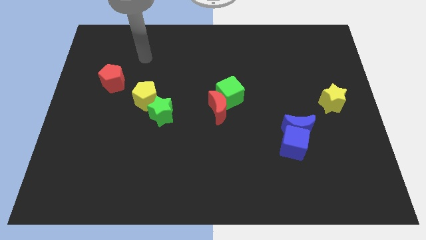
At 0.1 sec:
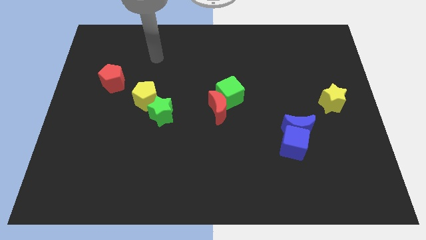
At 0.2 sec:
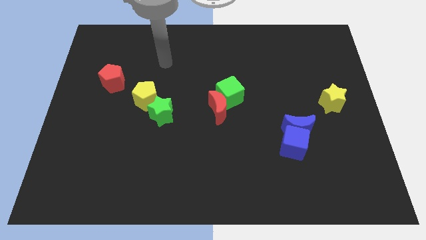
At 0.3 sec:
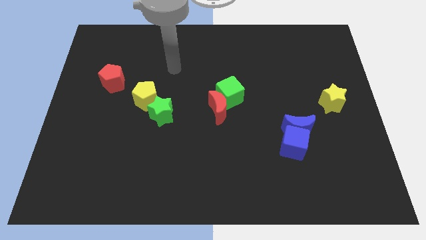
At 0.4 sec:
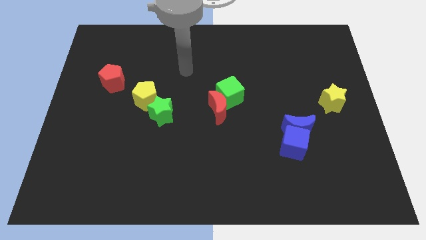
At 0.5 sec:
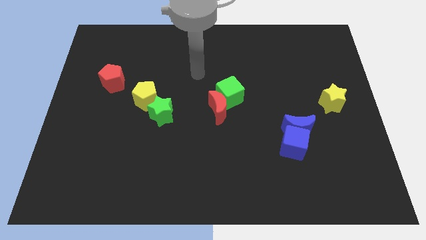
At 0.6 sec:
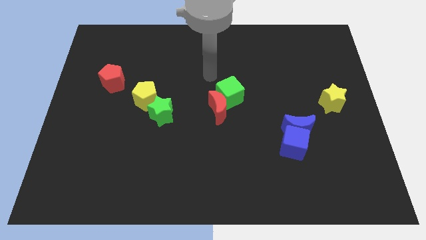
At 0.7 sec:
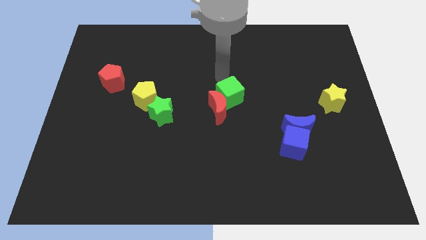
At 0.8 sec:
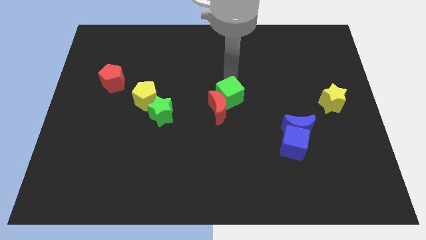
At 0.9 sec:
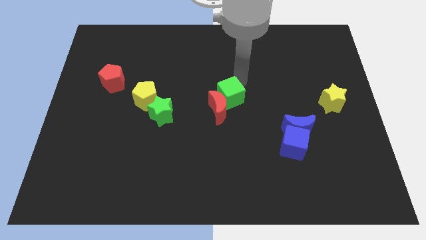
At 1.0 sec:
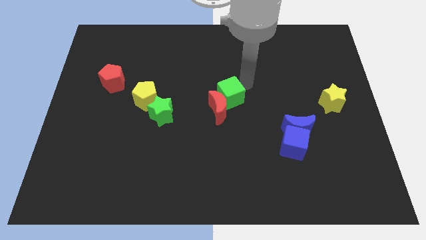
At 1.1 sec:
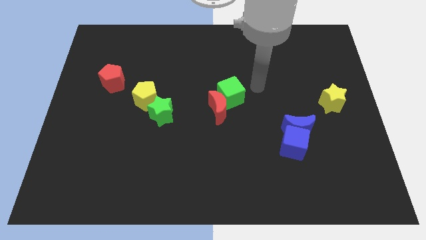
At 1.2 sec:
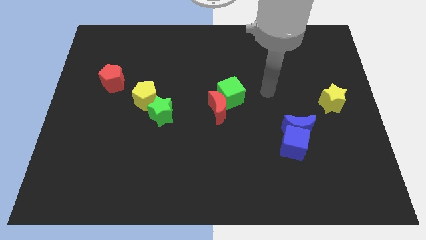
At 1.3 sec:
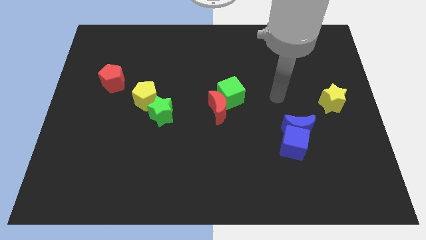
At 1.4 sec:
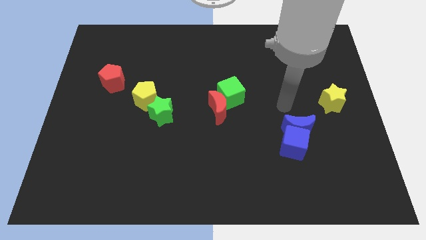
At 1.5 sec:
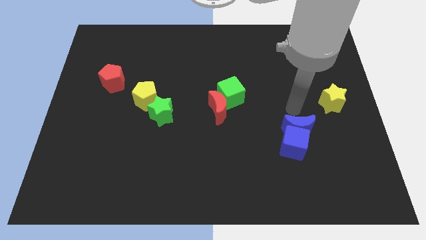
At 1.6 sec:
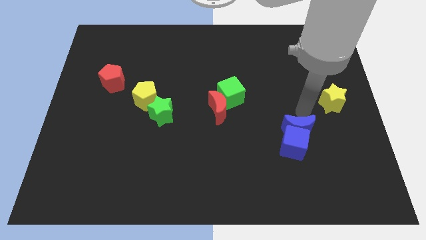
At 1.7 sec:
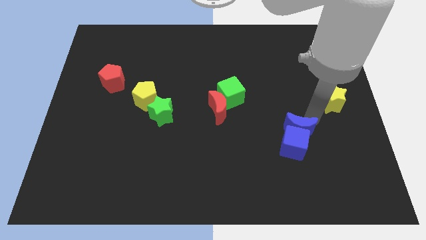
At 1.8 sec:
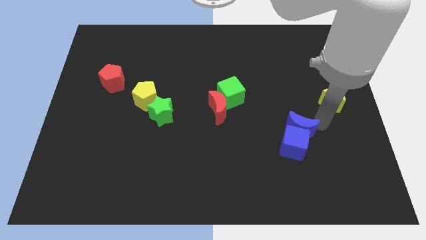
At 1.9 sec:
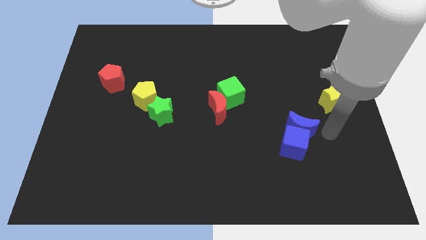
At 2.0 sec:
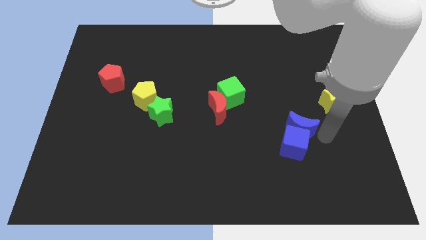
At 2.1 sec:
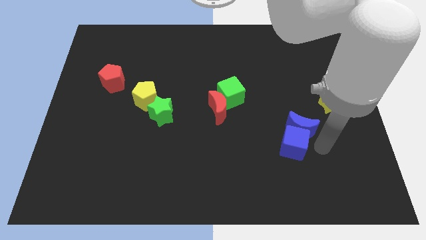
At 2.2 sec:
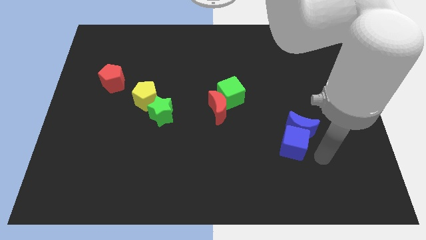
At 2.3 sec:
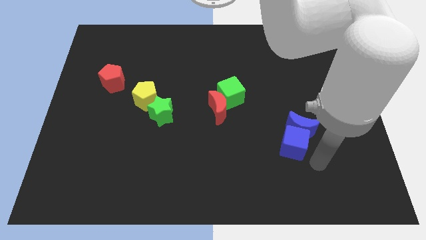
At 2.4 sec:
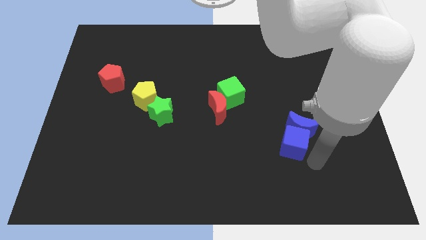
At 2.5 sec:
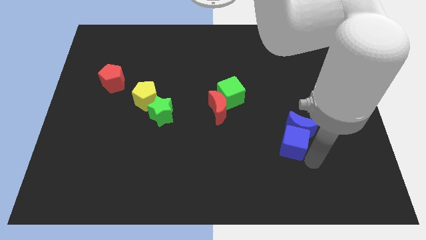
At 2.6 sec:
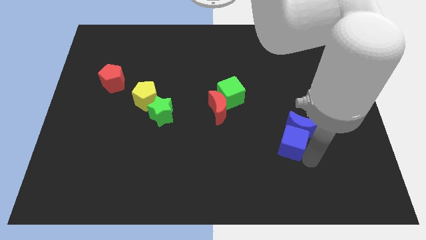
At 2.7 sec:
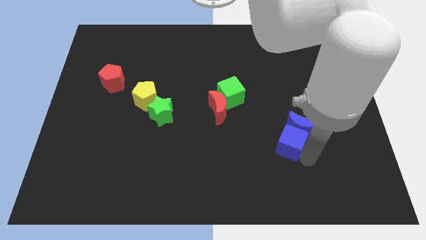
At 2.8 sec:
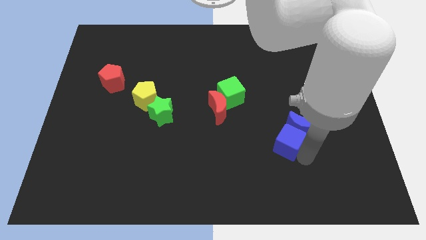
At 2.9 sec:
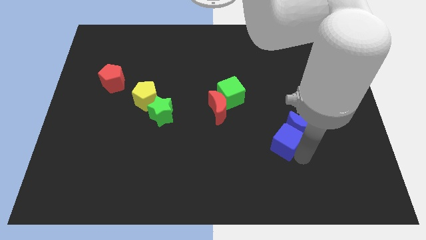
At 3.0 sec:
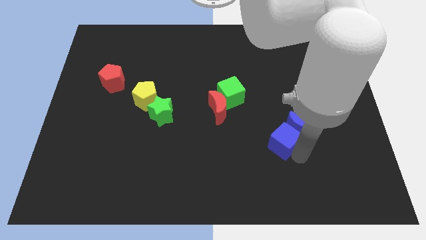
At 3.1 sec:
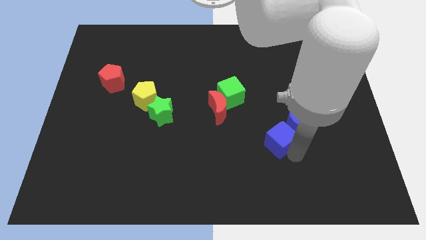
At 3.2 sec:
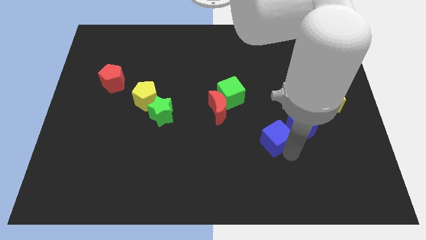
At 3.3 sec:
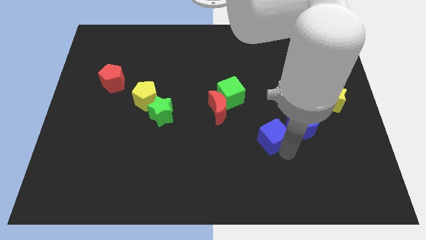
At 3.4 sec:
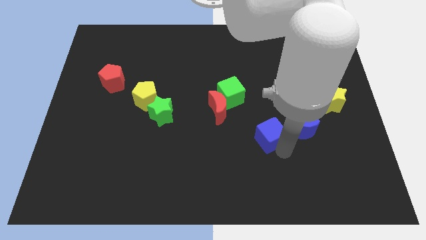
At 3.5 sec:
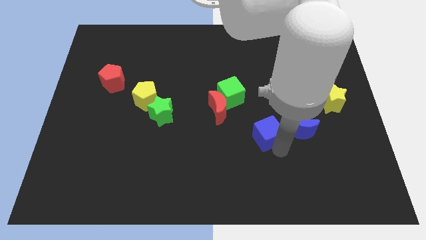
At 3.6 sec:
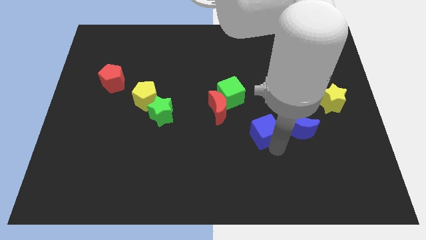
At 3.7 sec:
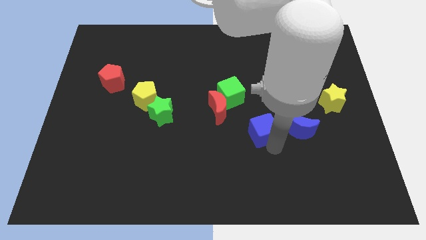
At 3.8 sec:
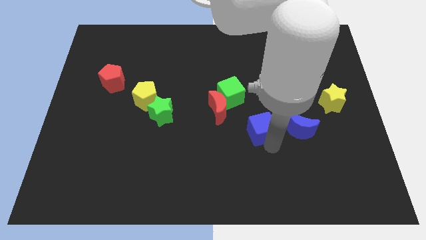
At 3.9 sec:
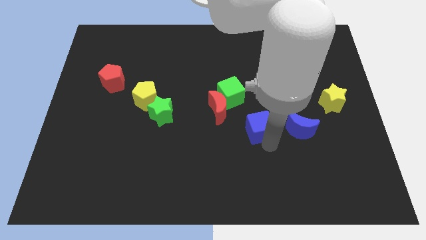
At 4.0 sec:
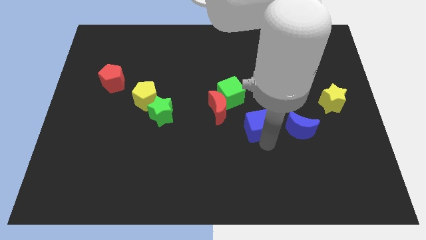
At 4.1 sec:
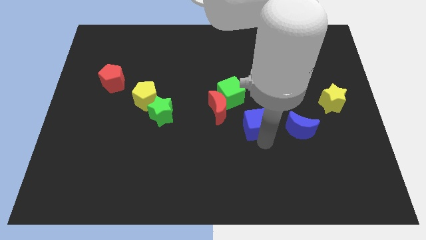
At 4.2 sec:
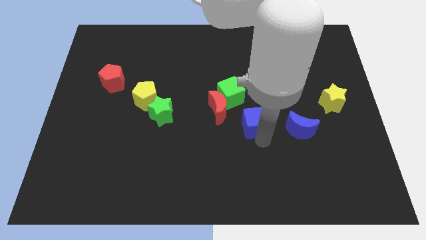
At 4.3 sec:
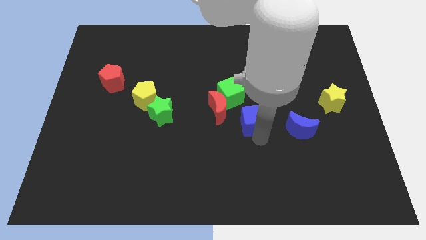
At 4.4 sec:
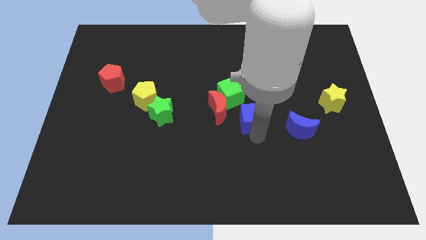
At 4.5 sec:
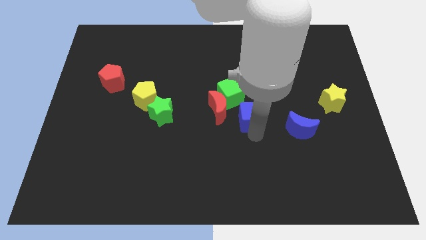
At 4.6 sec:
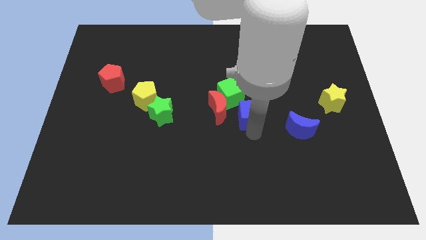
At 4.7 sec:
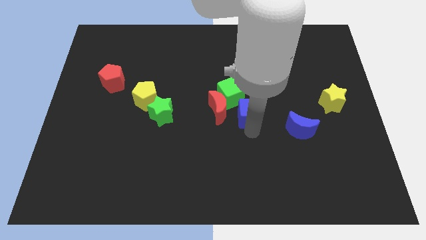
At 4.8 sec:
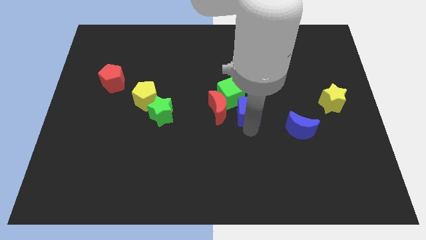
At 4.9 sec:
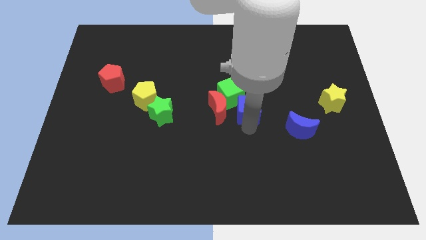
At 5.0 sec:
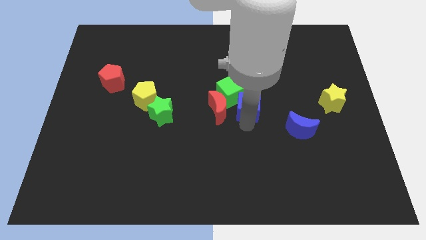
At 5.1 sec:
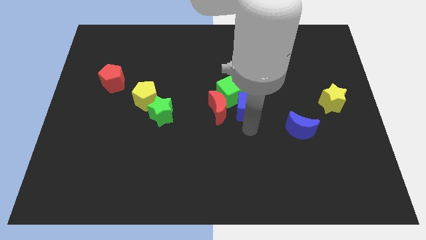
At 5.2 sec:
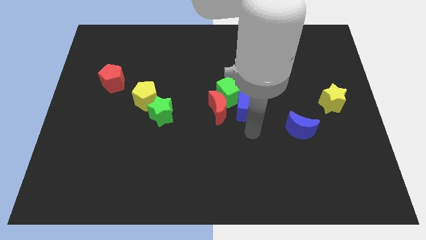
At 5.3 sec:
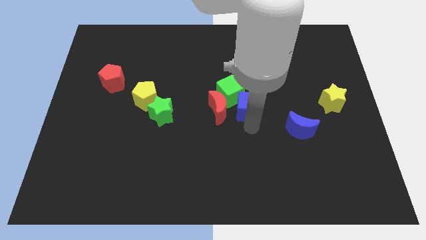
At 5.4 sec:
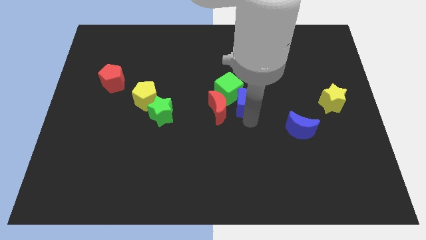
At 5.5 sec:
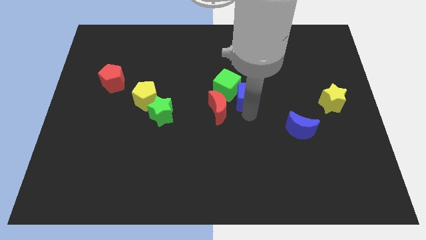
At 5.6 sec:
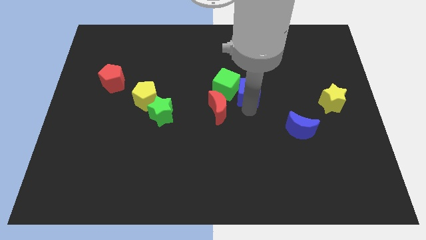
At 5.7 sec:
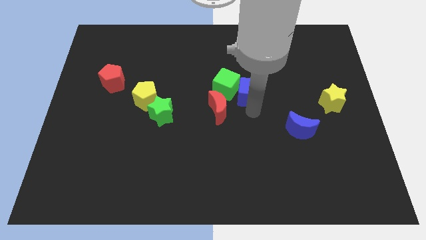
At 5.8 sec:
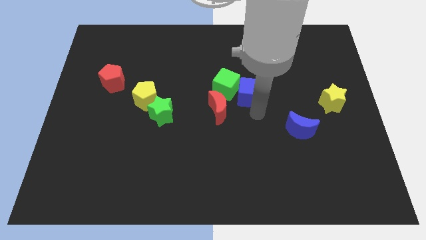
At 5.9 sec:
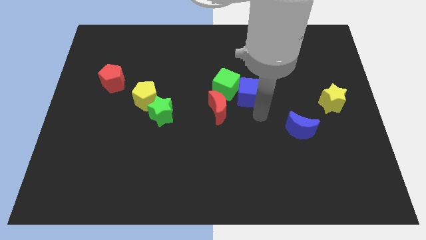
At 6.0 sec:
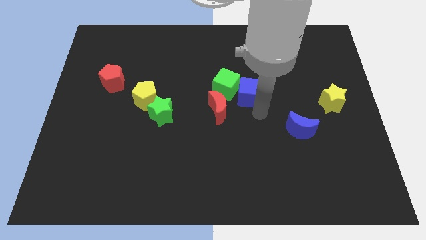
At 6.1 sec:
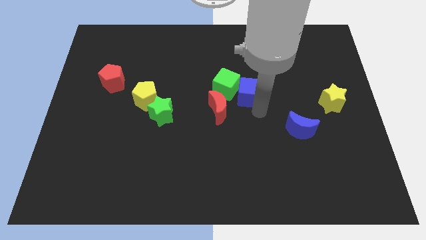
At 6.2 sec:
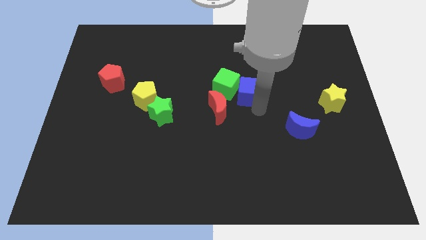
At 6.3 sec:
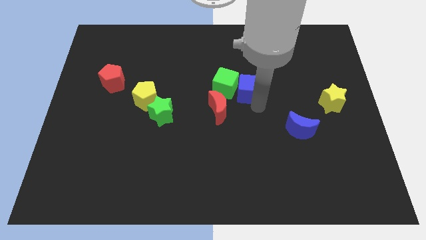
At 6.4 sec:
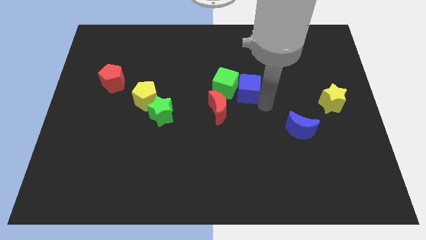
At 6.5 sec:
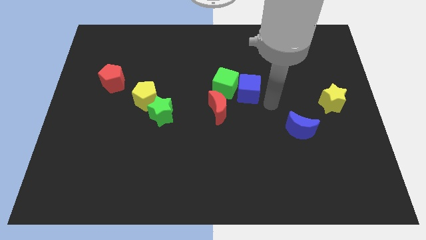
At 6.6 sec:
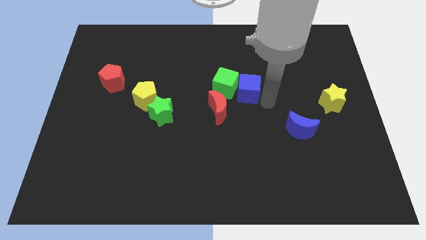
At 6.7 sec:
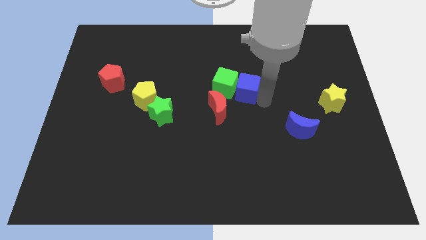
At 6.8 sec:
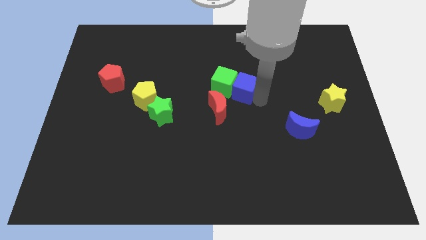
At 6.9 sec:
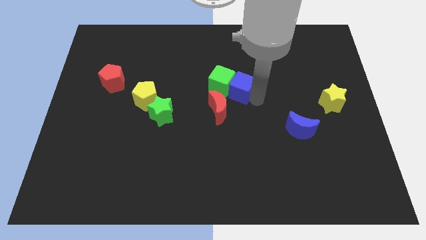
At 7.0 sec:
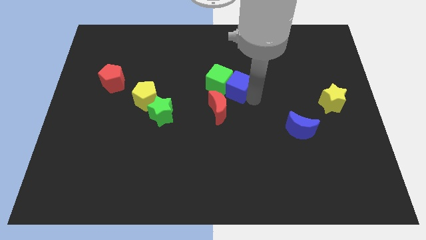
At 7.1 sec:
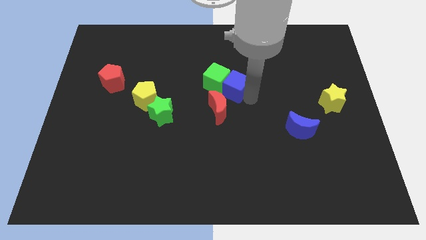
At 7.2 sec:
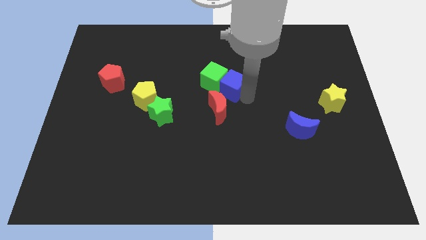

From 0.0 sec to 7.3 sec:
slide the blue cube upwards and to the left diagonally

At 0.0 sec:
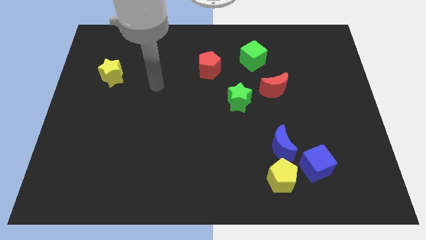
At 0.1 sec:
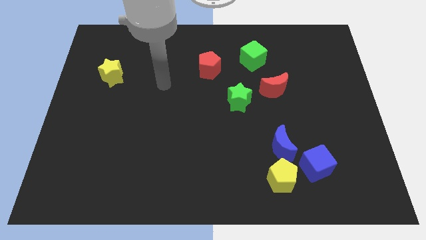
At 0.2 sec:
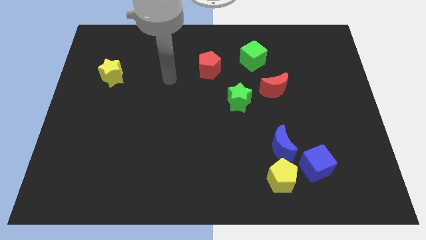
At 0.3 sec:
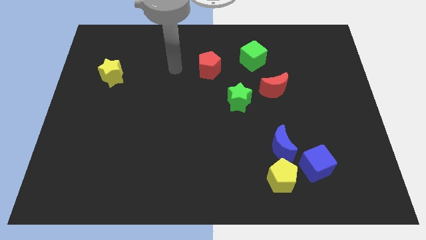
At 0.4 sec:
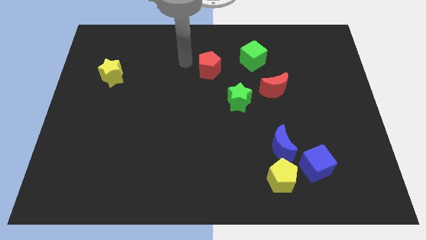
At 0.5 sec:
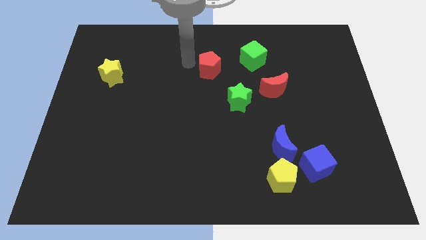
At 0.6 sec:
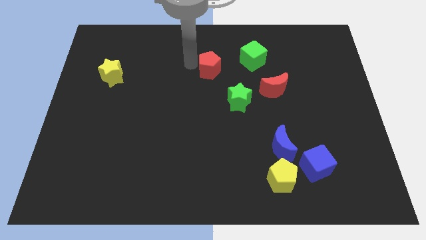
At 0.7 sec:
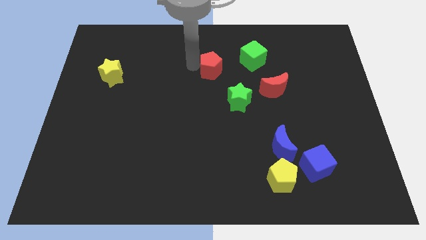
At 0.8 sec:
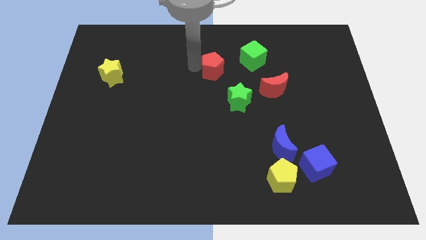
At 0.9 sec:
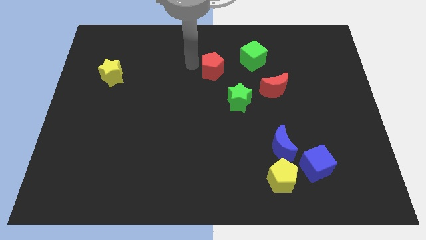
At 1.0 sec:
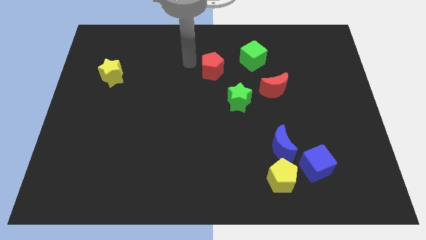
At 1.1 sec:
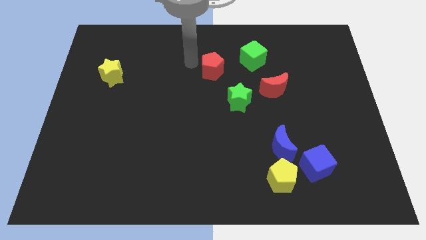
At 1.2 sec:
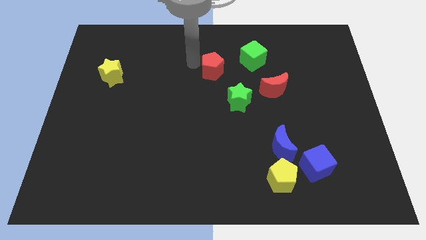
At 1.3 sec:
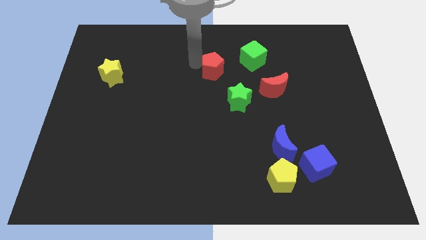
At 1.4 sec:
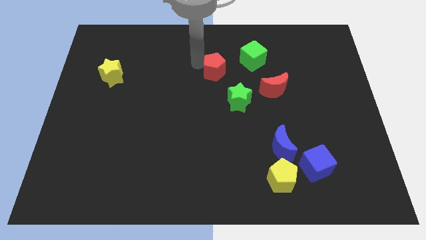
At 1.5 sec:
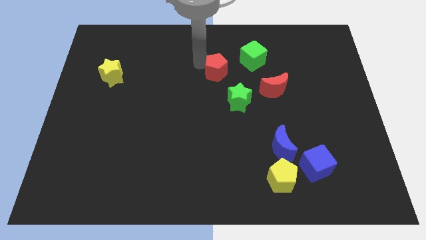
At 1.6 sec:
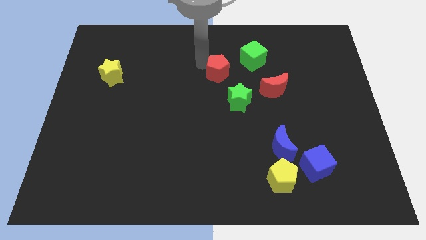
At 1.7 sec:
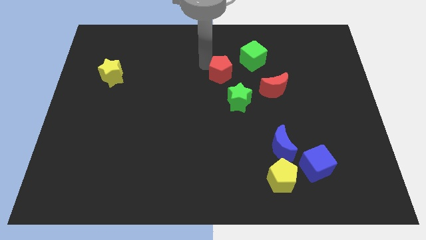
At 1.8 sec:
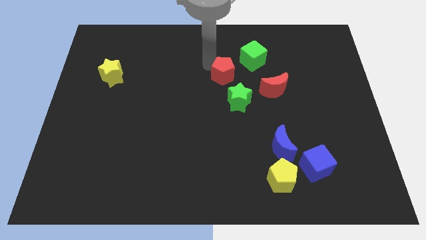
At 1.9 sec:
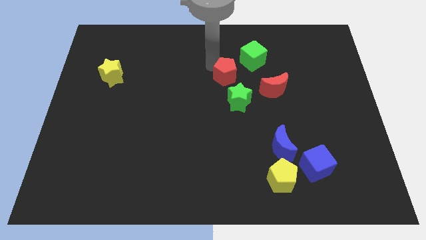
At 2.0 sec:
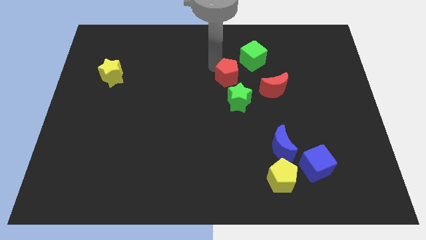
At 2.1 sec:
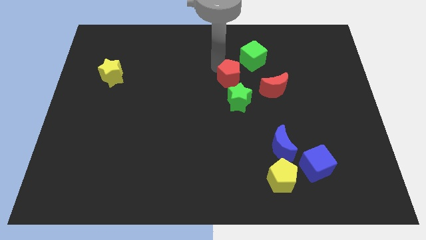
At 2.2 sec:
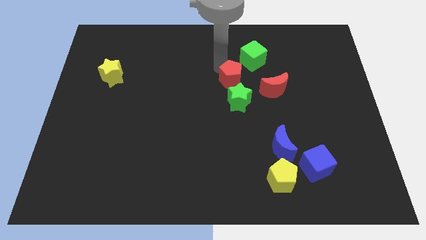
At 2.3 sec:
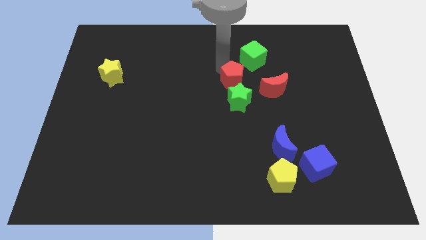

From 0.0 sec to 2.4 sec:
move the red pentagon diagonally downwards and right slightly
